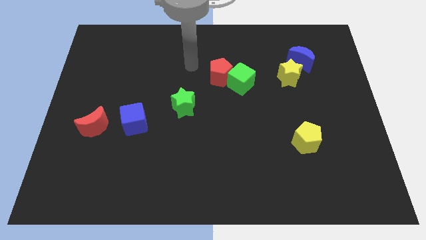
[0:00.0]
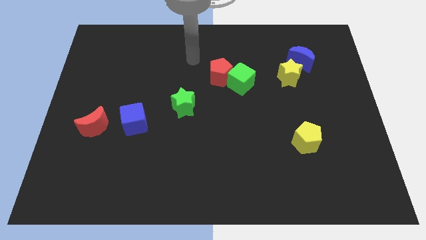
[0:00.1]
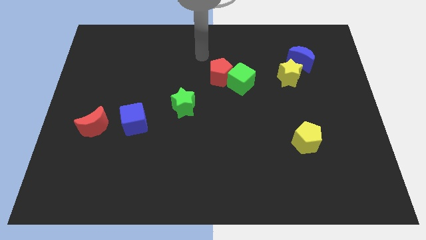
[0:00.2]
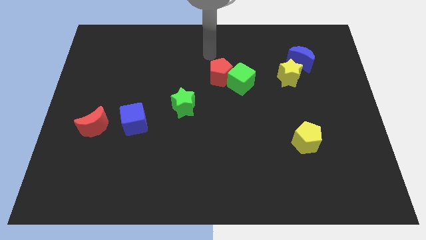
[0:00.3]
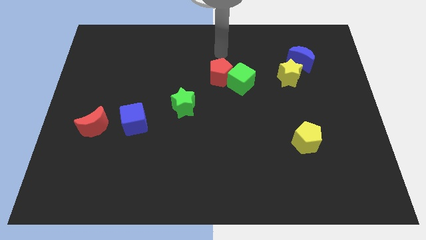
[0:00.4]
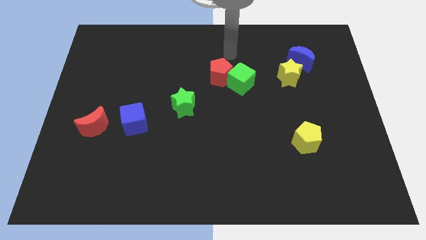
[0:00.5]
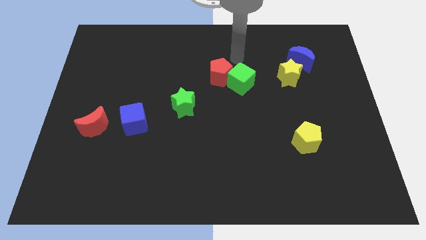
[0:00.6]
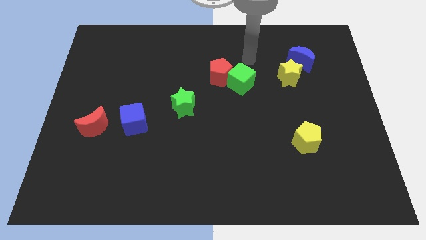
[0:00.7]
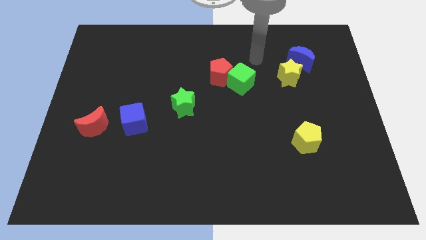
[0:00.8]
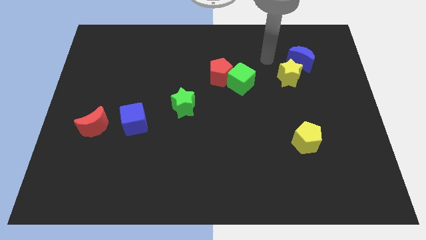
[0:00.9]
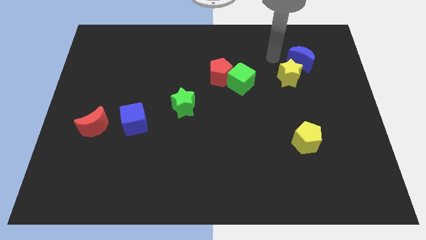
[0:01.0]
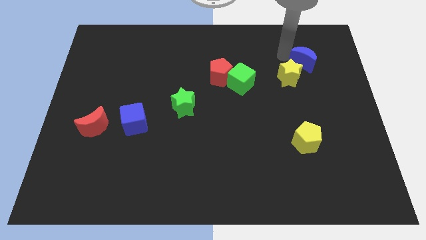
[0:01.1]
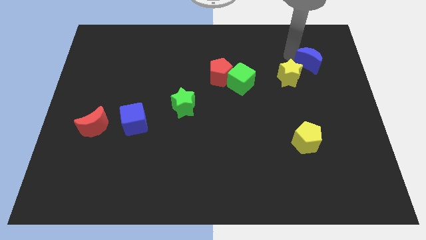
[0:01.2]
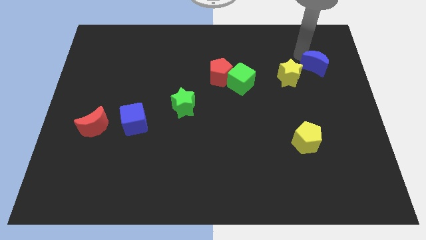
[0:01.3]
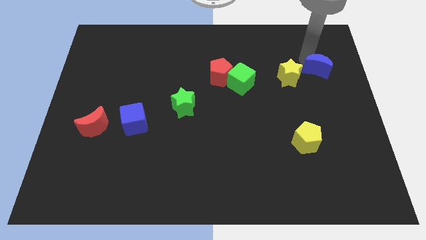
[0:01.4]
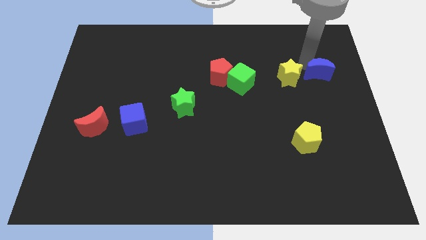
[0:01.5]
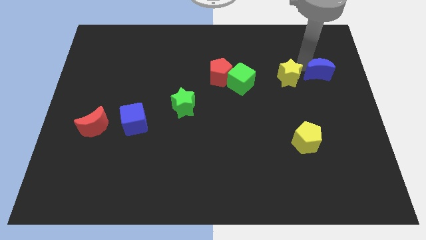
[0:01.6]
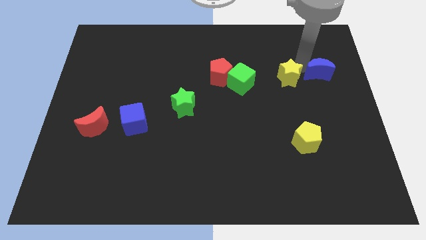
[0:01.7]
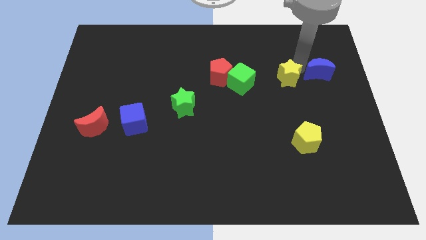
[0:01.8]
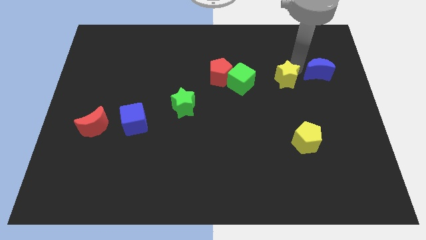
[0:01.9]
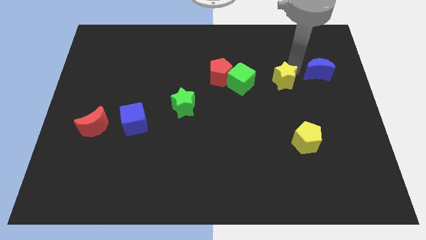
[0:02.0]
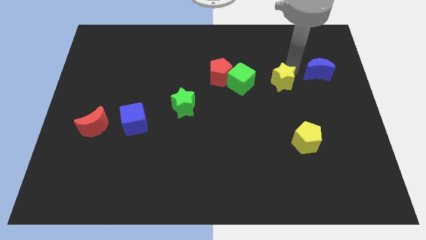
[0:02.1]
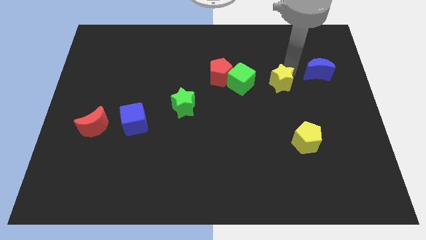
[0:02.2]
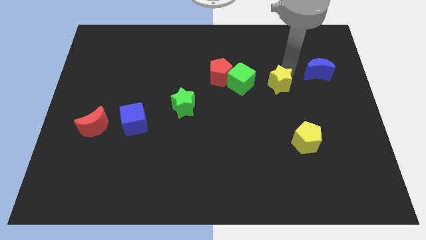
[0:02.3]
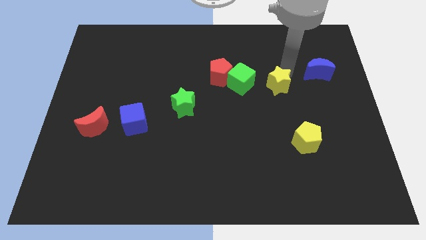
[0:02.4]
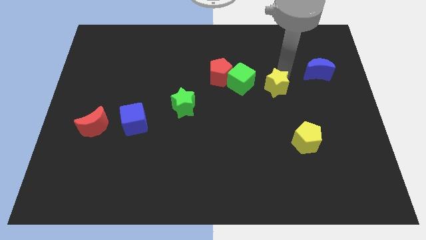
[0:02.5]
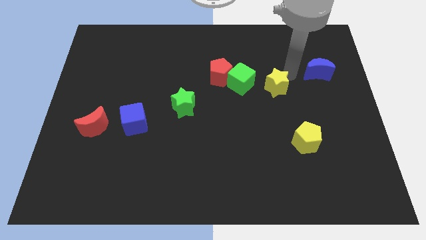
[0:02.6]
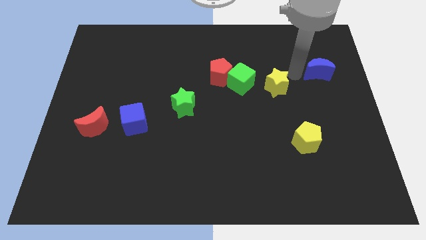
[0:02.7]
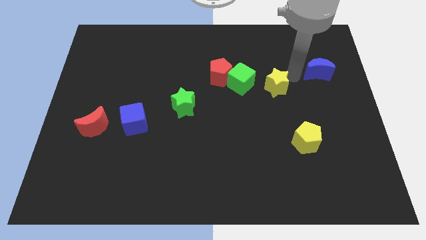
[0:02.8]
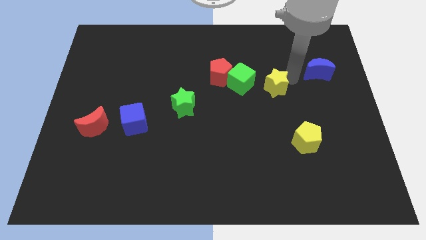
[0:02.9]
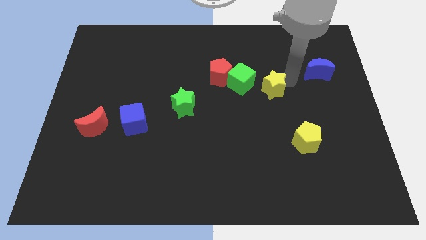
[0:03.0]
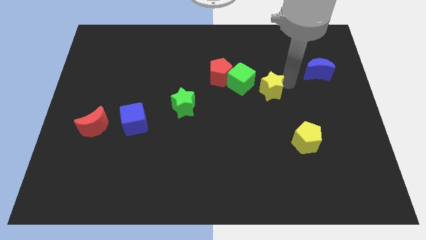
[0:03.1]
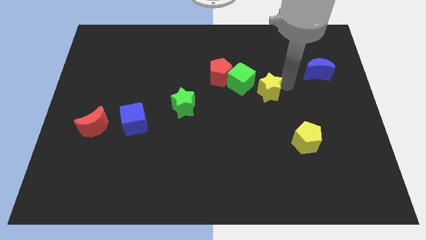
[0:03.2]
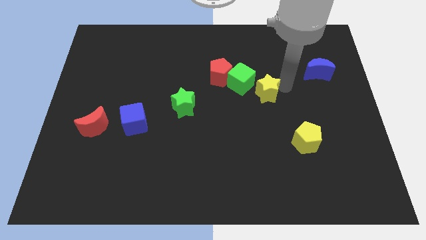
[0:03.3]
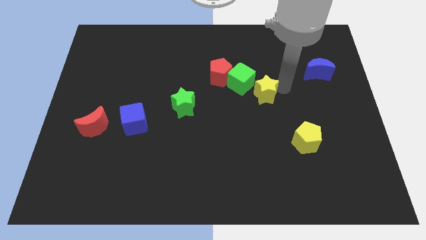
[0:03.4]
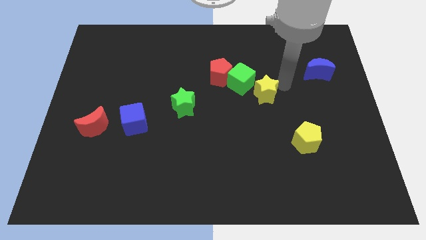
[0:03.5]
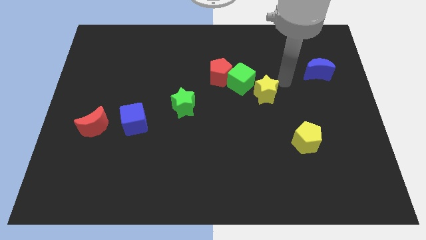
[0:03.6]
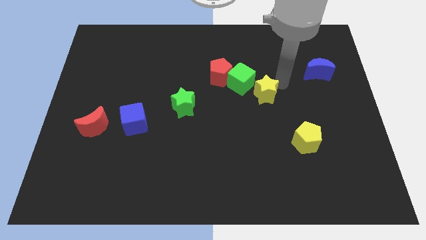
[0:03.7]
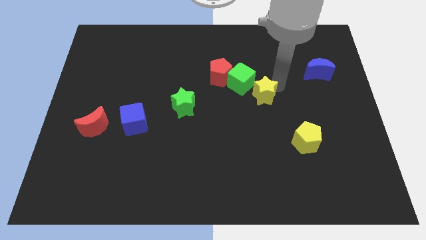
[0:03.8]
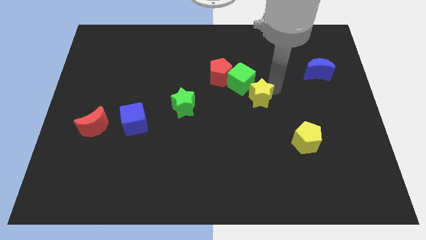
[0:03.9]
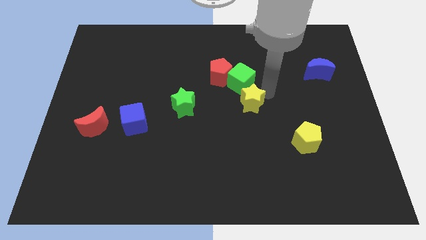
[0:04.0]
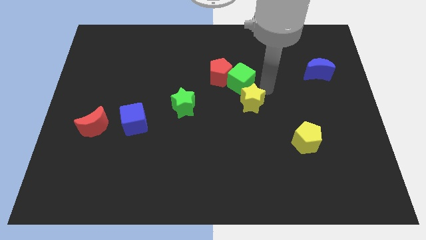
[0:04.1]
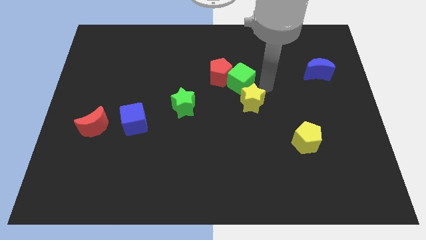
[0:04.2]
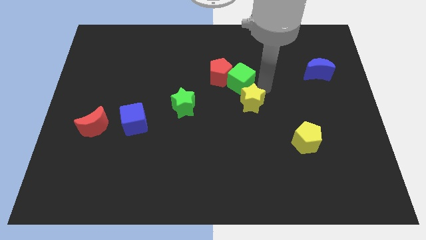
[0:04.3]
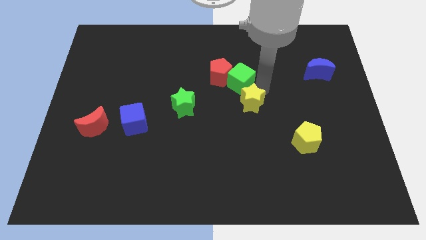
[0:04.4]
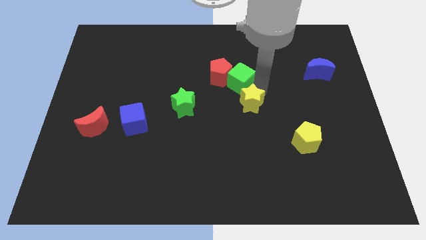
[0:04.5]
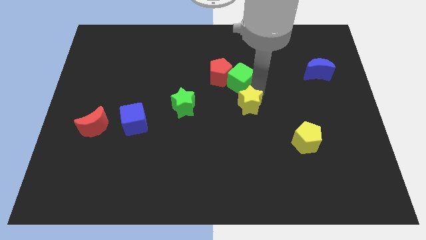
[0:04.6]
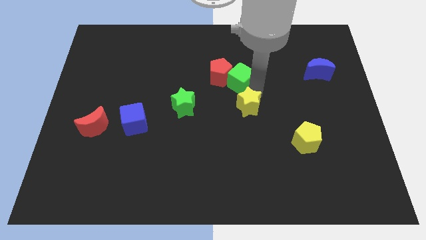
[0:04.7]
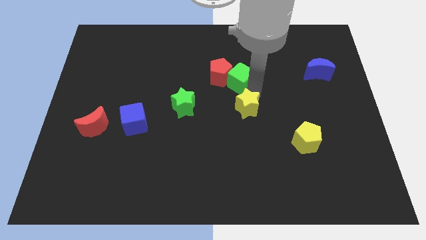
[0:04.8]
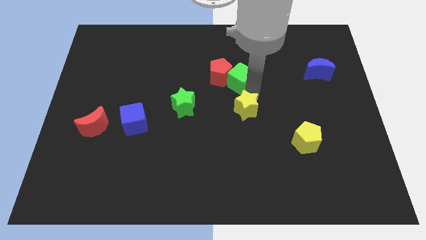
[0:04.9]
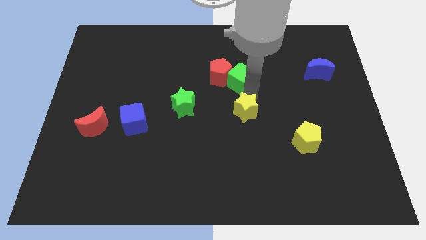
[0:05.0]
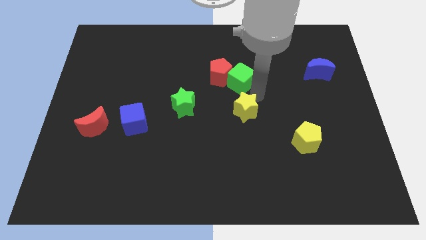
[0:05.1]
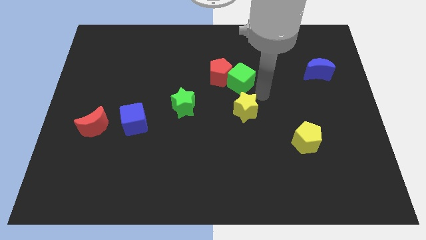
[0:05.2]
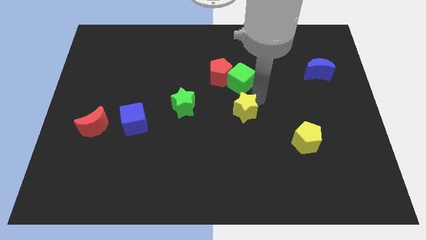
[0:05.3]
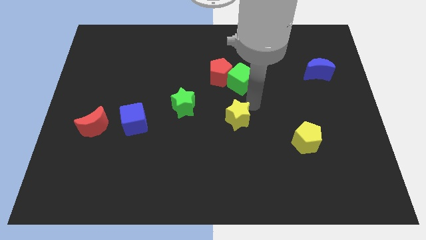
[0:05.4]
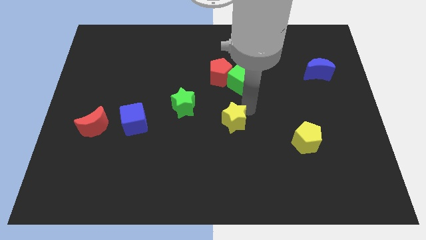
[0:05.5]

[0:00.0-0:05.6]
push the yellow star downwards and left diagonally

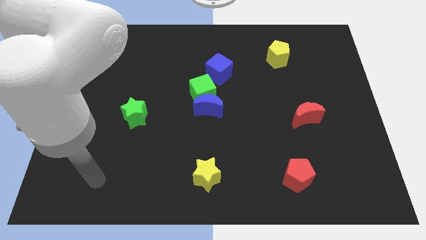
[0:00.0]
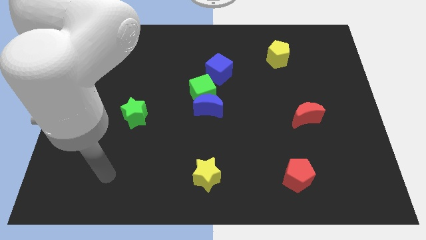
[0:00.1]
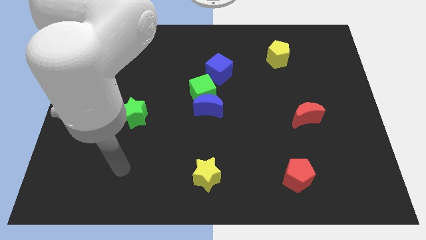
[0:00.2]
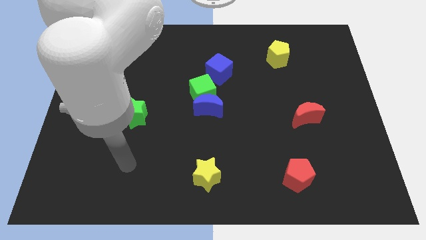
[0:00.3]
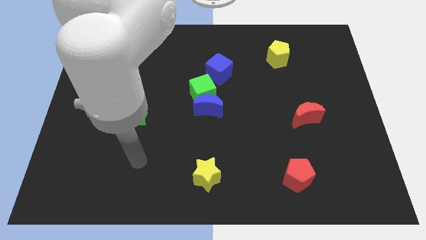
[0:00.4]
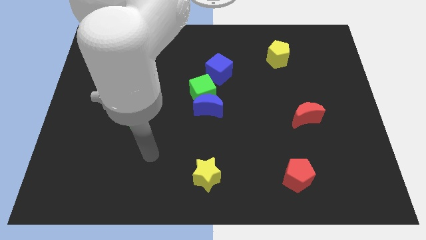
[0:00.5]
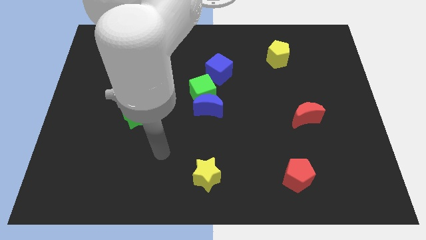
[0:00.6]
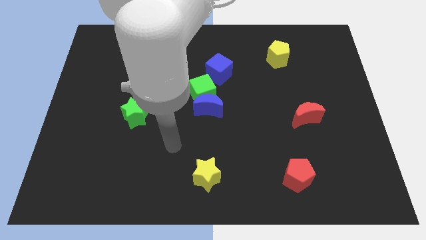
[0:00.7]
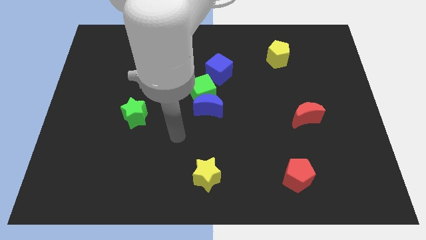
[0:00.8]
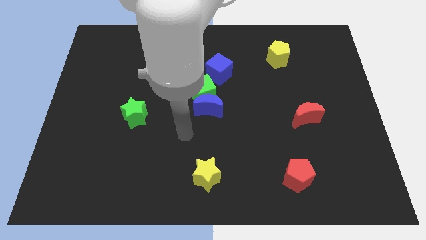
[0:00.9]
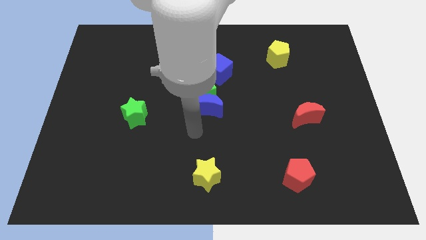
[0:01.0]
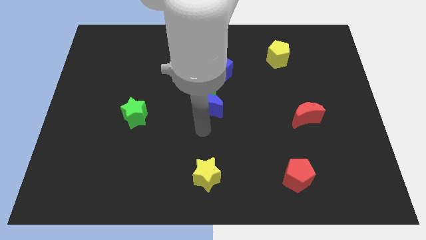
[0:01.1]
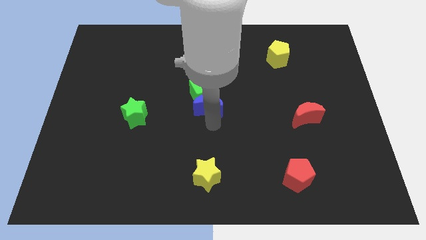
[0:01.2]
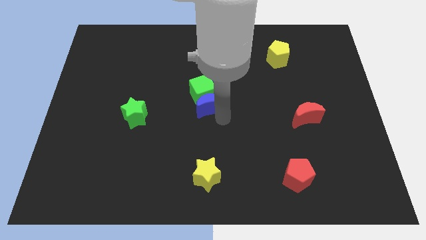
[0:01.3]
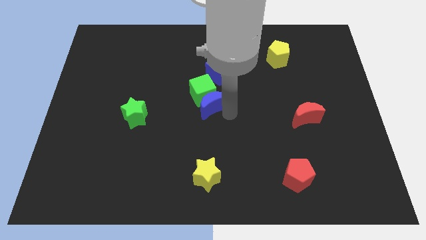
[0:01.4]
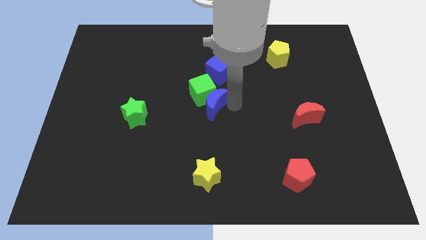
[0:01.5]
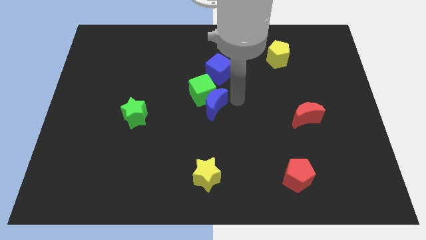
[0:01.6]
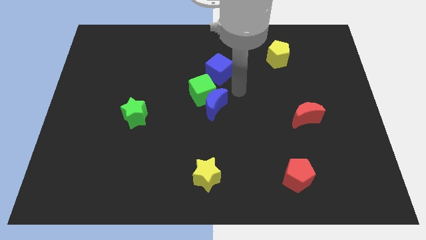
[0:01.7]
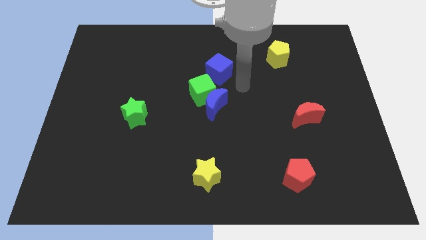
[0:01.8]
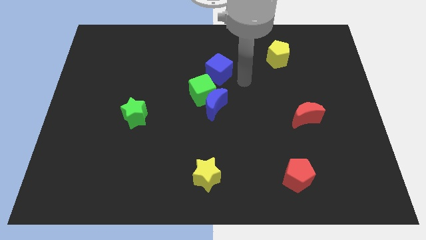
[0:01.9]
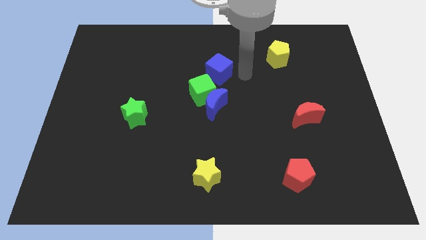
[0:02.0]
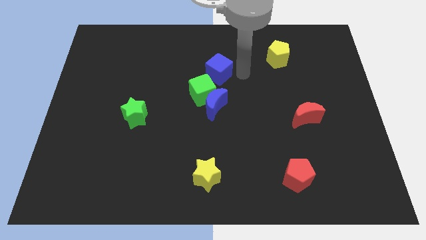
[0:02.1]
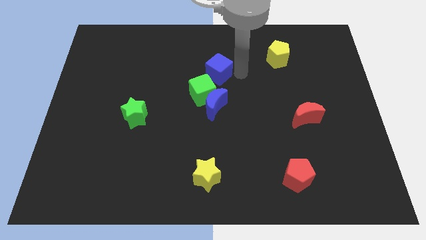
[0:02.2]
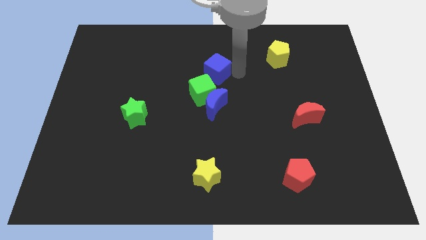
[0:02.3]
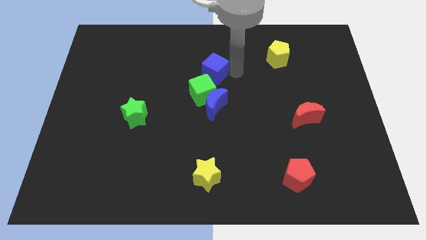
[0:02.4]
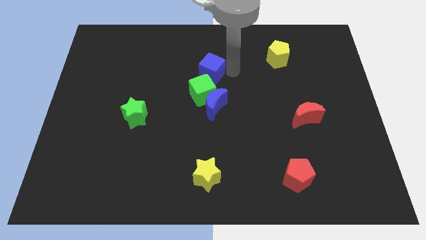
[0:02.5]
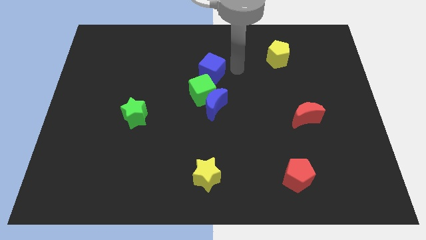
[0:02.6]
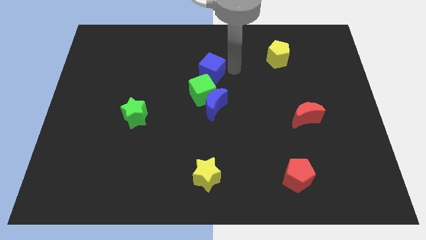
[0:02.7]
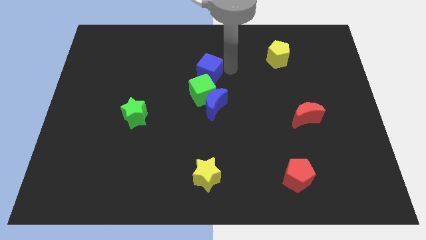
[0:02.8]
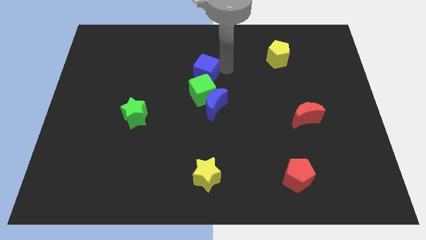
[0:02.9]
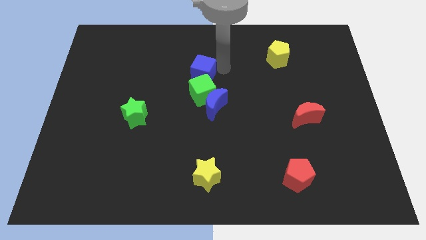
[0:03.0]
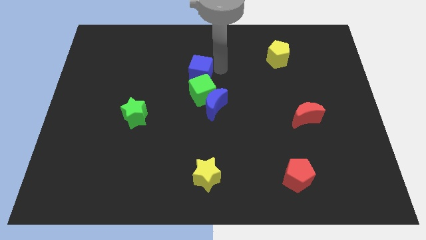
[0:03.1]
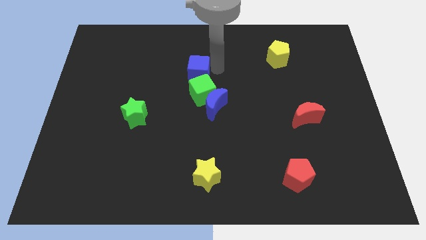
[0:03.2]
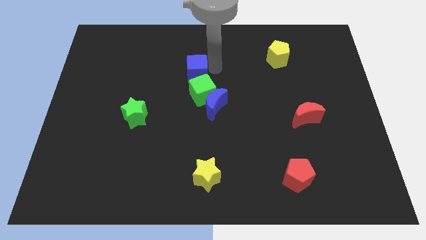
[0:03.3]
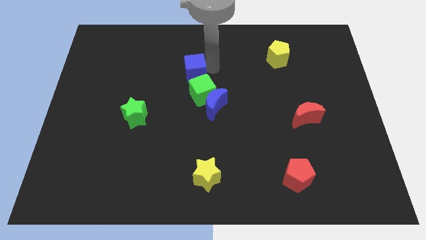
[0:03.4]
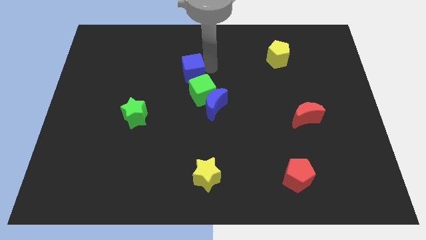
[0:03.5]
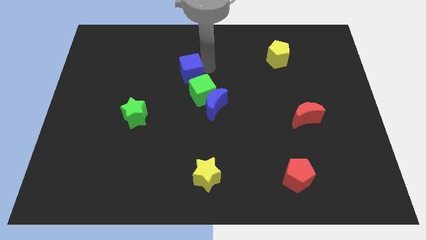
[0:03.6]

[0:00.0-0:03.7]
push the blue cube to the left a bit
